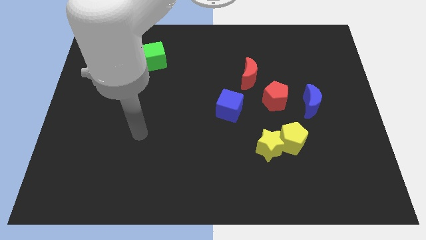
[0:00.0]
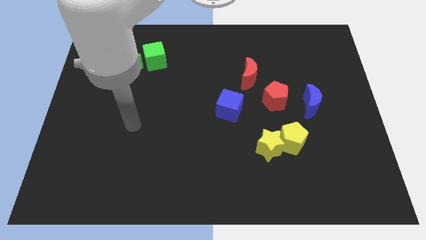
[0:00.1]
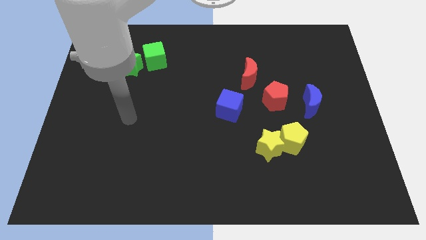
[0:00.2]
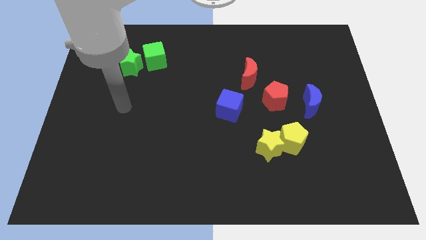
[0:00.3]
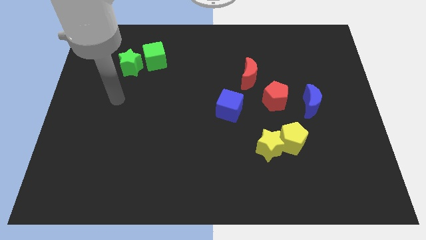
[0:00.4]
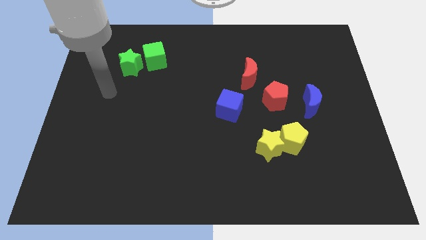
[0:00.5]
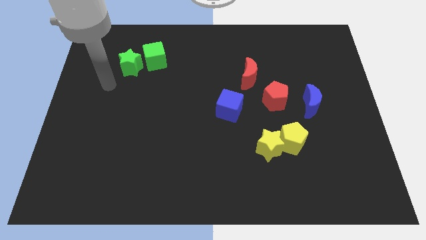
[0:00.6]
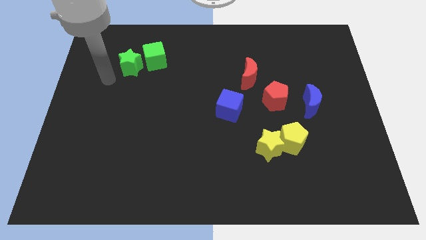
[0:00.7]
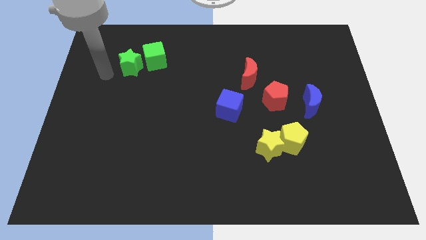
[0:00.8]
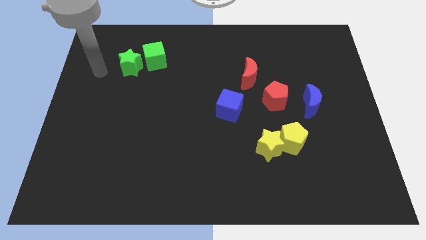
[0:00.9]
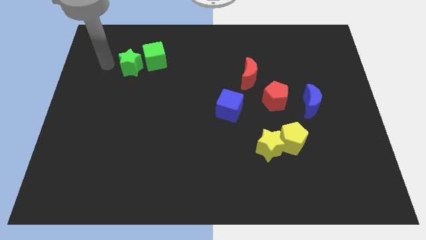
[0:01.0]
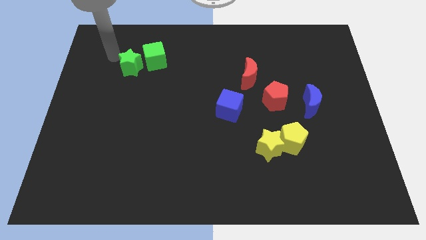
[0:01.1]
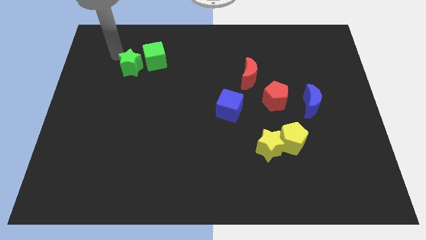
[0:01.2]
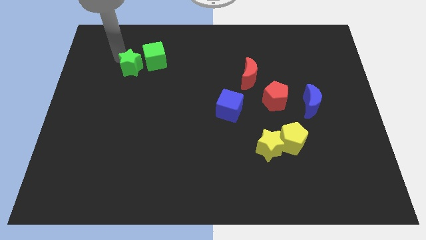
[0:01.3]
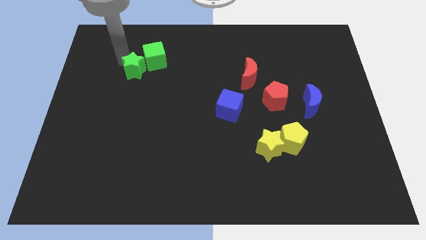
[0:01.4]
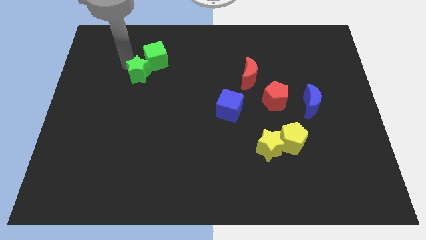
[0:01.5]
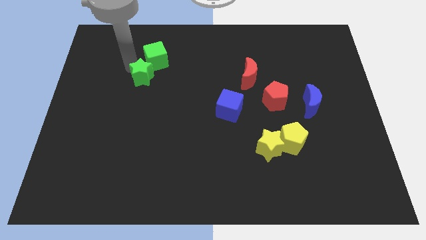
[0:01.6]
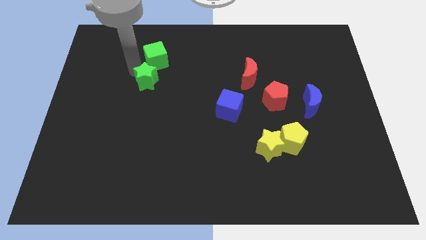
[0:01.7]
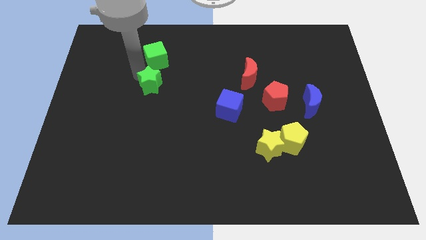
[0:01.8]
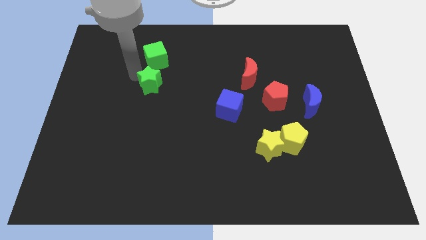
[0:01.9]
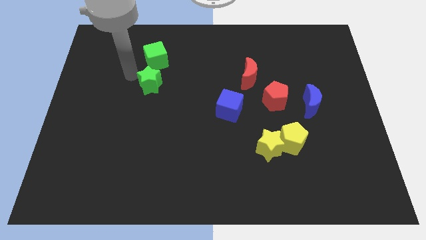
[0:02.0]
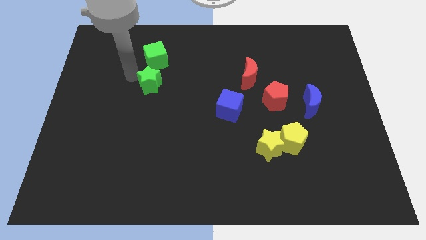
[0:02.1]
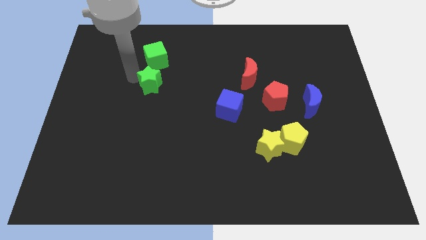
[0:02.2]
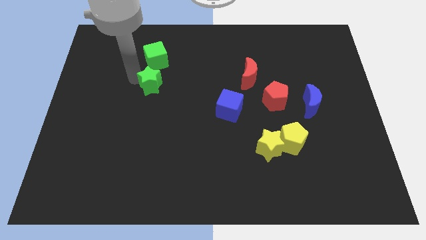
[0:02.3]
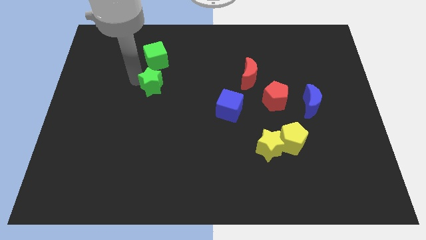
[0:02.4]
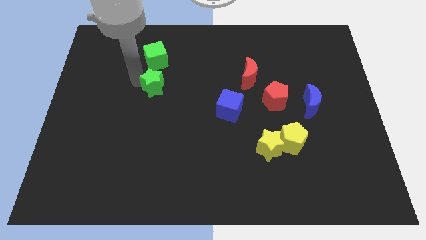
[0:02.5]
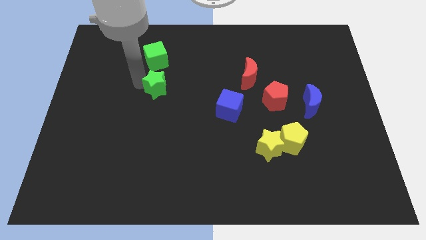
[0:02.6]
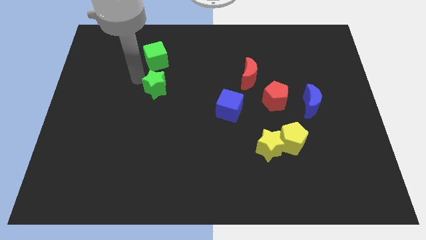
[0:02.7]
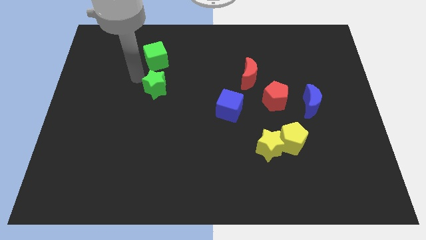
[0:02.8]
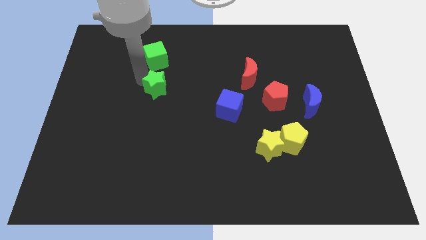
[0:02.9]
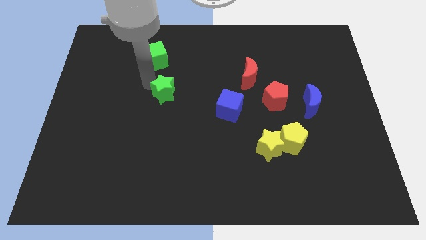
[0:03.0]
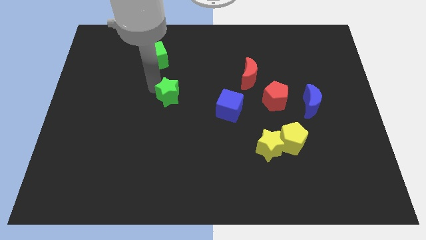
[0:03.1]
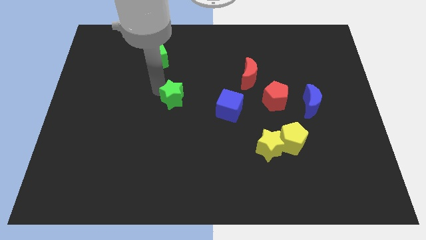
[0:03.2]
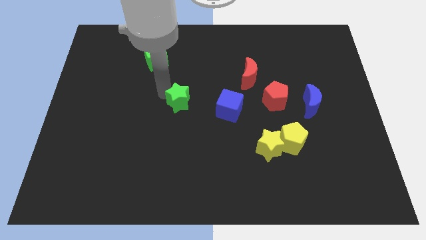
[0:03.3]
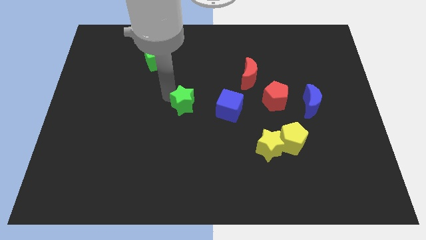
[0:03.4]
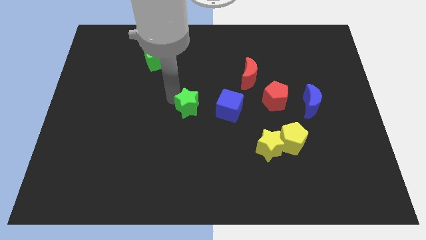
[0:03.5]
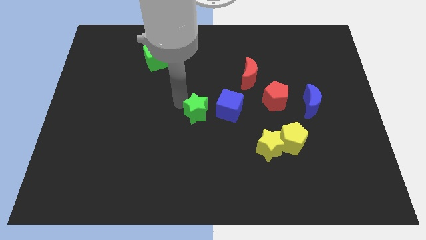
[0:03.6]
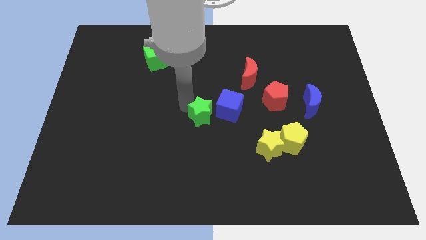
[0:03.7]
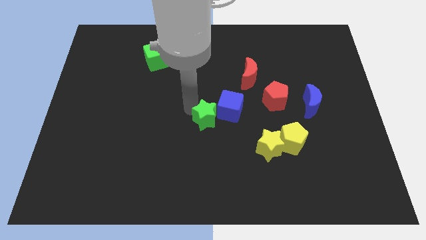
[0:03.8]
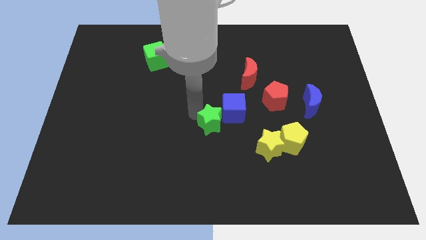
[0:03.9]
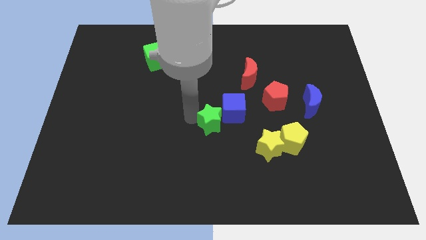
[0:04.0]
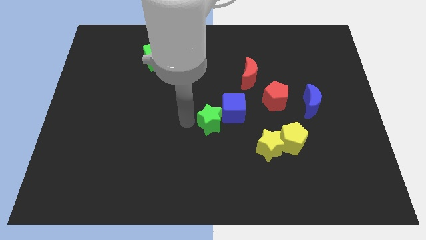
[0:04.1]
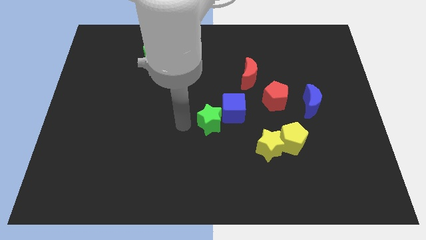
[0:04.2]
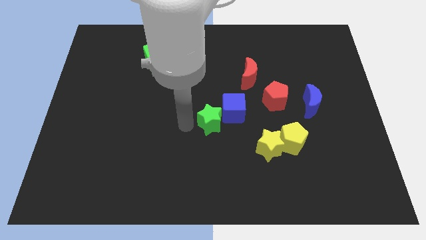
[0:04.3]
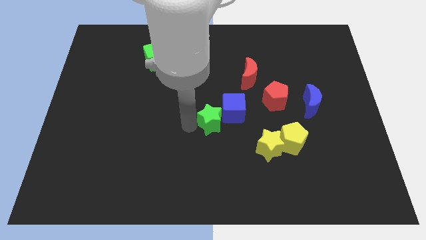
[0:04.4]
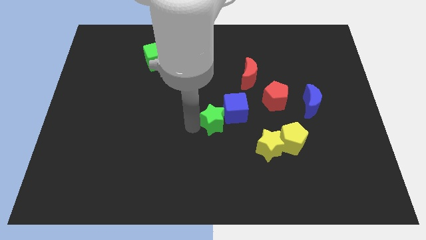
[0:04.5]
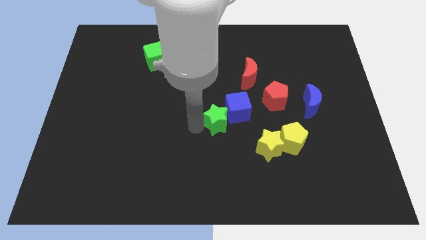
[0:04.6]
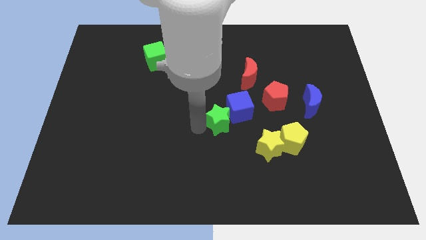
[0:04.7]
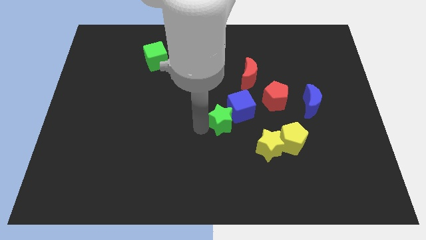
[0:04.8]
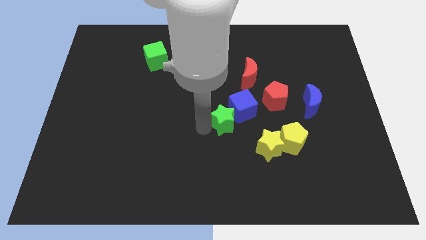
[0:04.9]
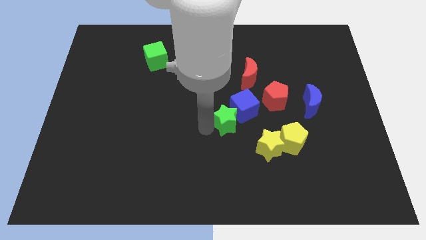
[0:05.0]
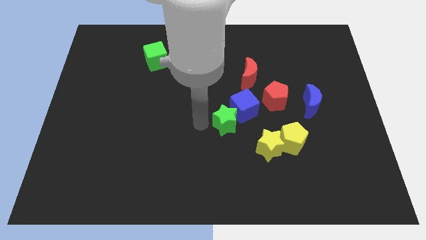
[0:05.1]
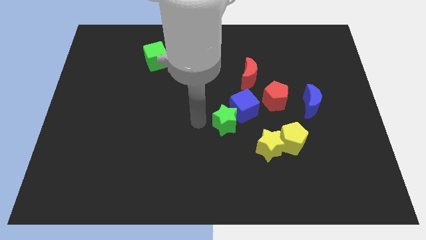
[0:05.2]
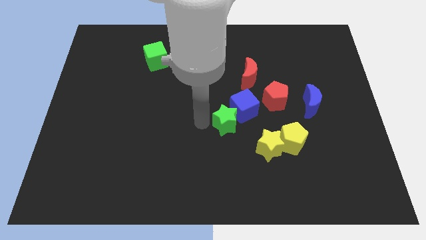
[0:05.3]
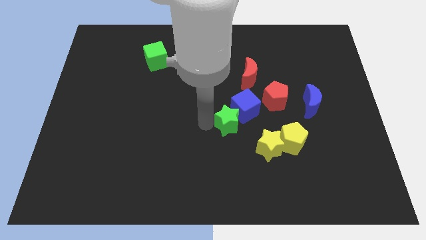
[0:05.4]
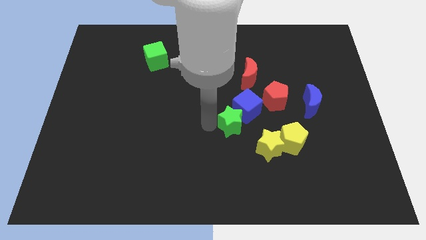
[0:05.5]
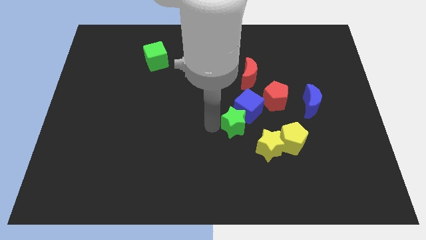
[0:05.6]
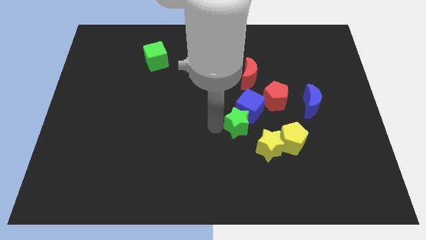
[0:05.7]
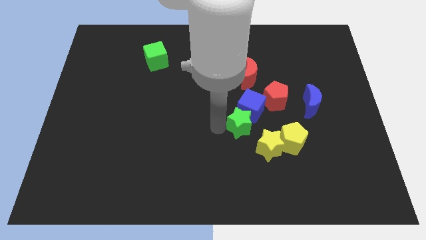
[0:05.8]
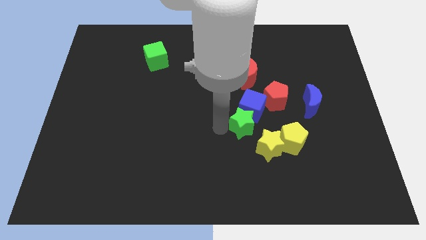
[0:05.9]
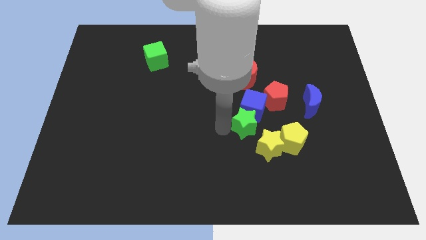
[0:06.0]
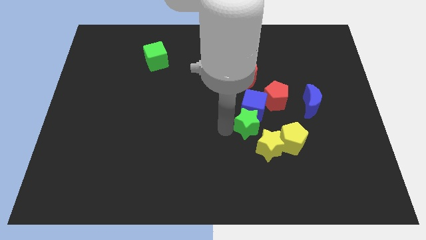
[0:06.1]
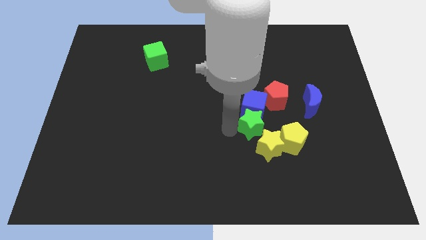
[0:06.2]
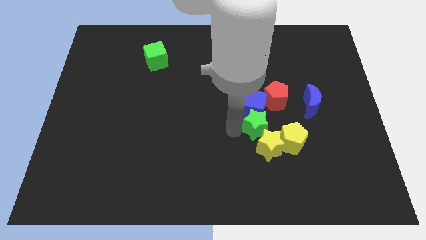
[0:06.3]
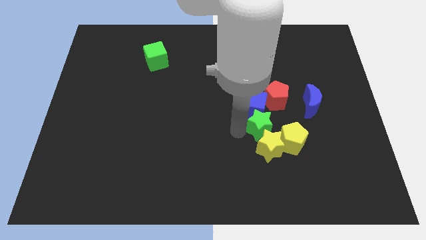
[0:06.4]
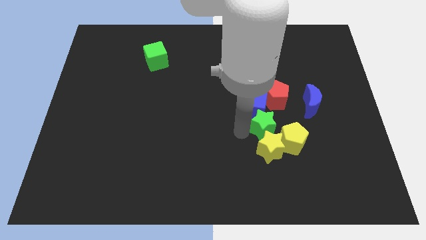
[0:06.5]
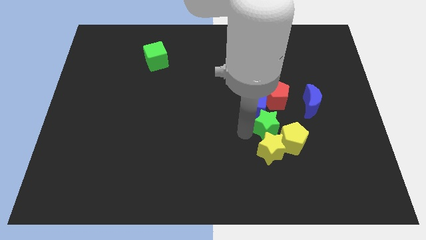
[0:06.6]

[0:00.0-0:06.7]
push the green star to the yellow pentagon
